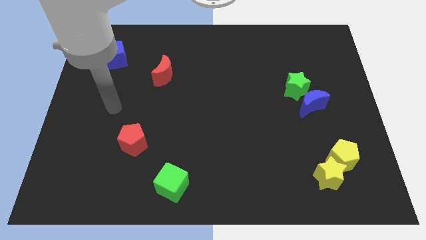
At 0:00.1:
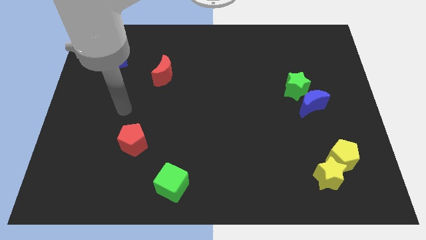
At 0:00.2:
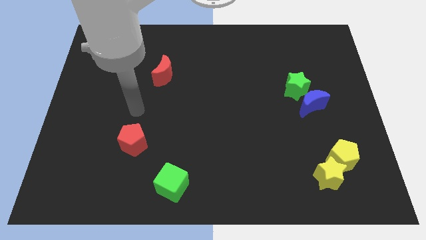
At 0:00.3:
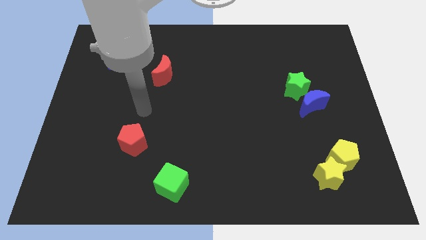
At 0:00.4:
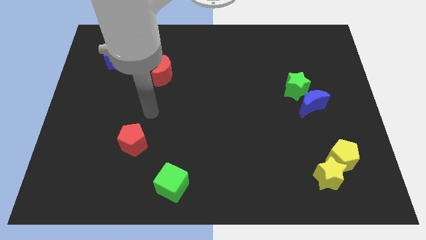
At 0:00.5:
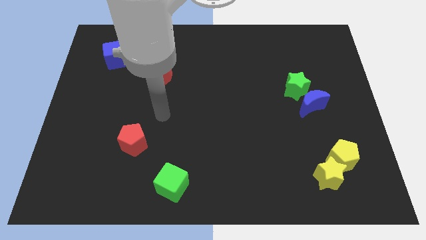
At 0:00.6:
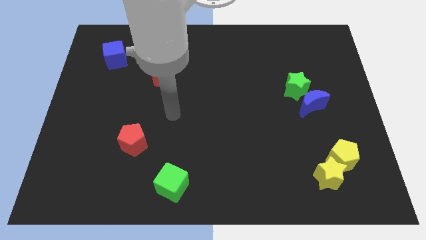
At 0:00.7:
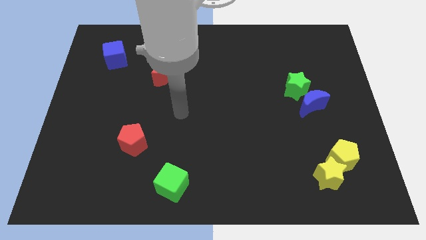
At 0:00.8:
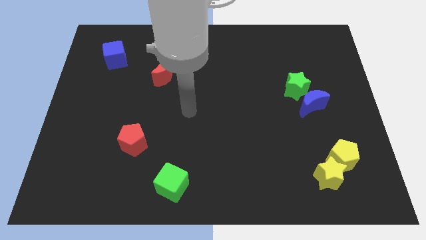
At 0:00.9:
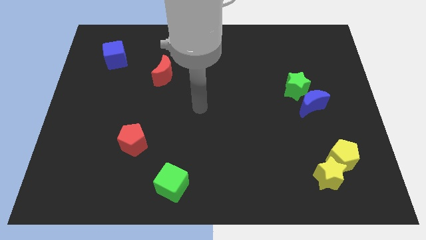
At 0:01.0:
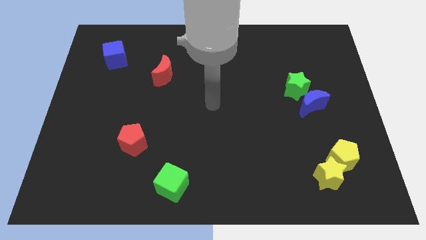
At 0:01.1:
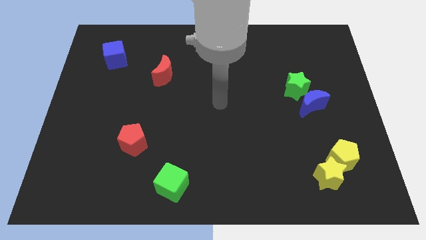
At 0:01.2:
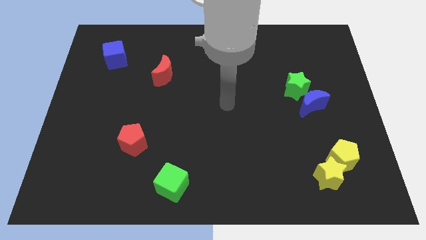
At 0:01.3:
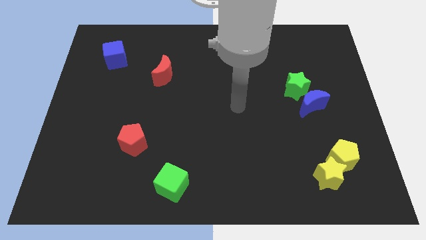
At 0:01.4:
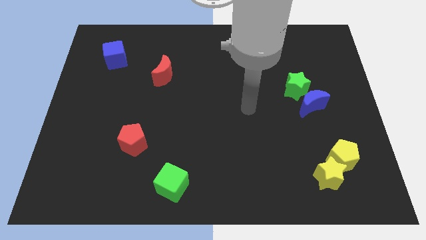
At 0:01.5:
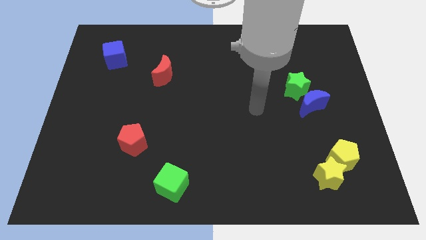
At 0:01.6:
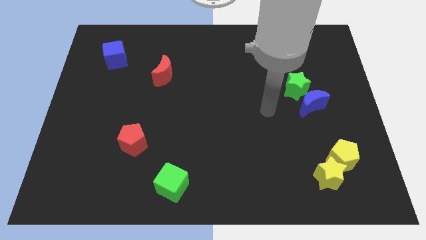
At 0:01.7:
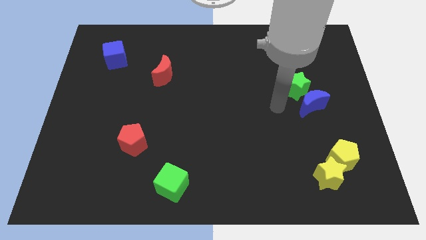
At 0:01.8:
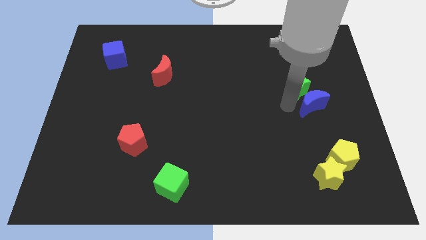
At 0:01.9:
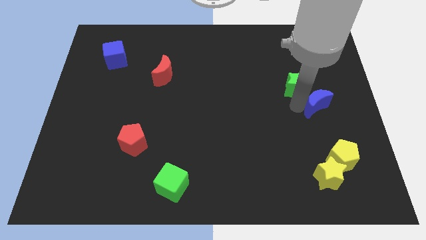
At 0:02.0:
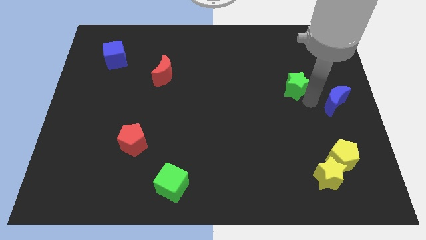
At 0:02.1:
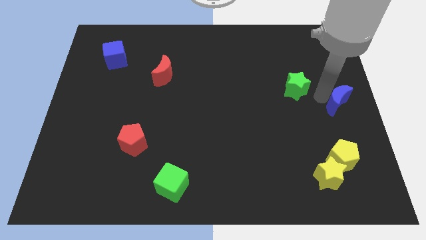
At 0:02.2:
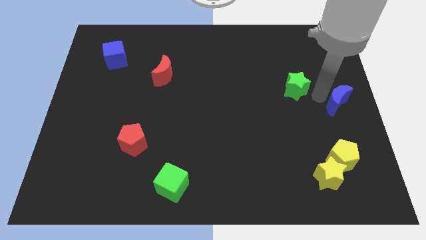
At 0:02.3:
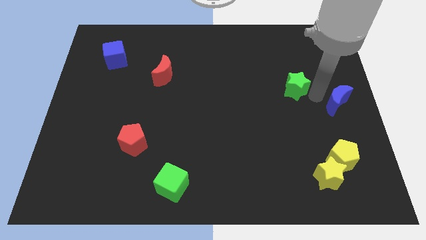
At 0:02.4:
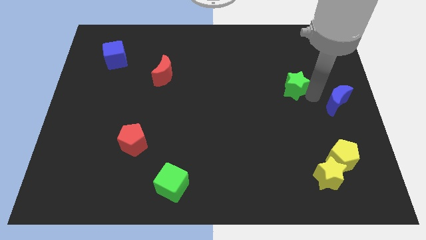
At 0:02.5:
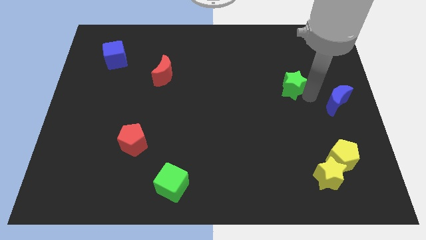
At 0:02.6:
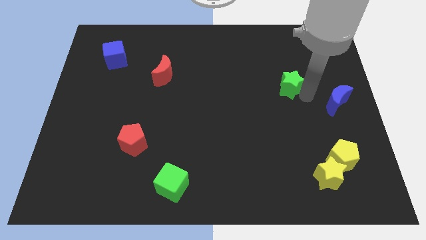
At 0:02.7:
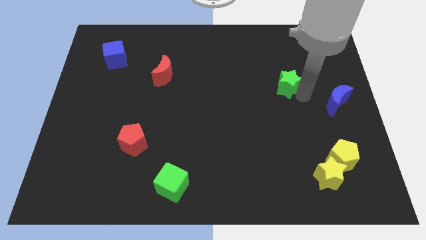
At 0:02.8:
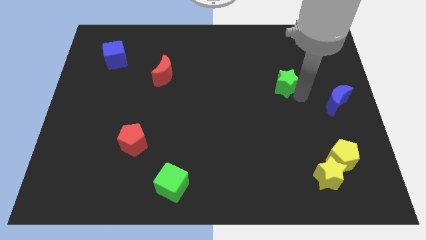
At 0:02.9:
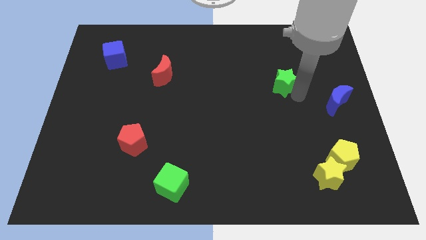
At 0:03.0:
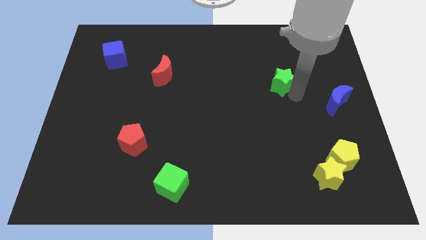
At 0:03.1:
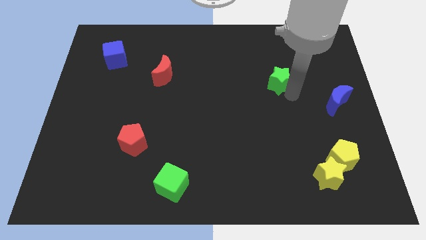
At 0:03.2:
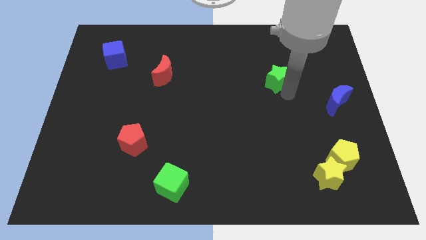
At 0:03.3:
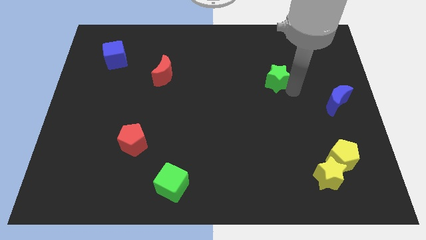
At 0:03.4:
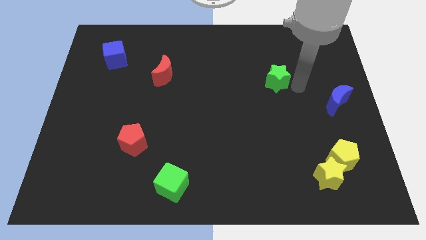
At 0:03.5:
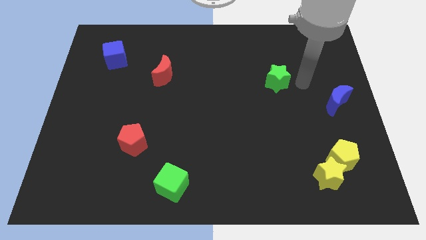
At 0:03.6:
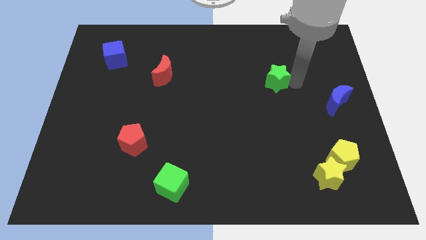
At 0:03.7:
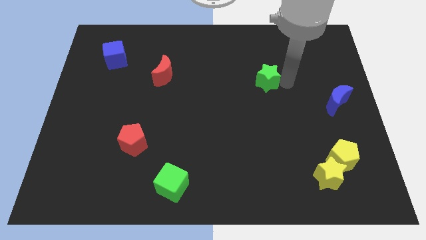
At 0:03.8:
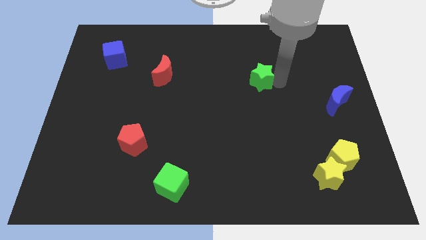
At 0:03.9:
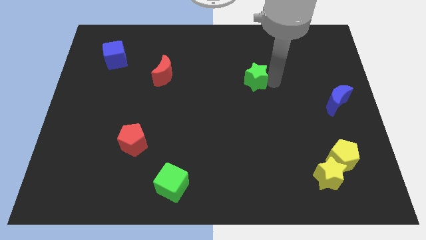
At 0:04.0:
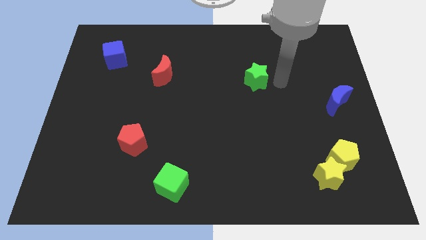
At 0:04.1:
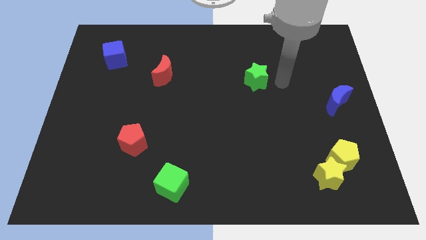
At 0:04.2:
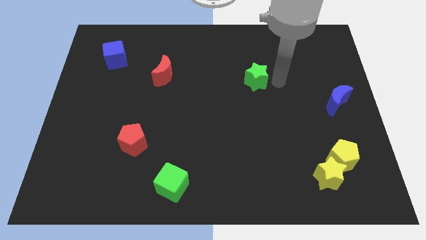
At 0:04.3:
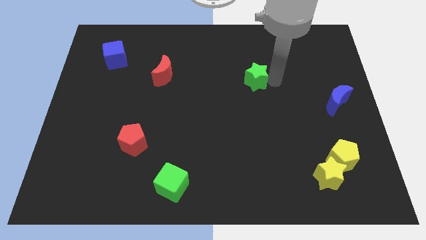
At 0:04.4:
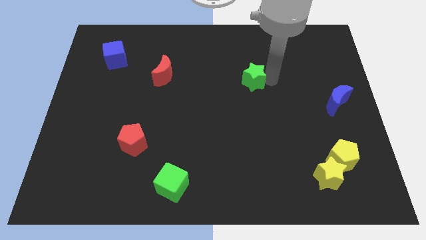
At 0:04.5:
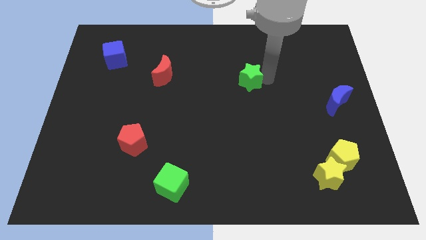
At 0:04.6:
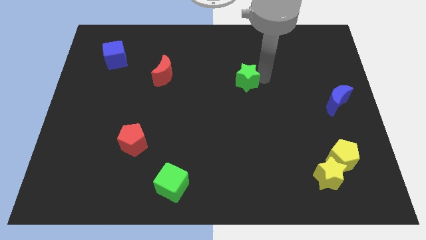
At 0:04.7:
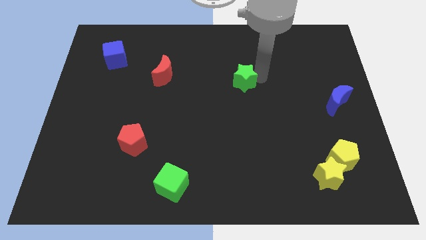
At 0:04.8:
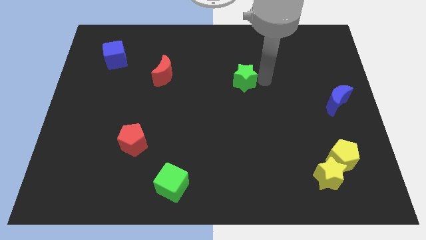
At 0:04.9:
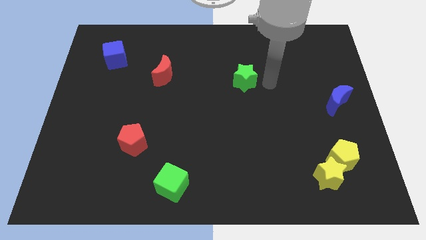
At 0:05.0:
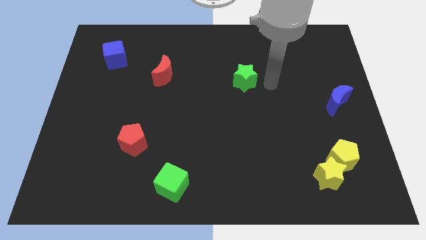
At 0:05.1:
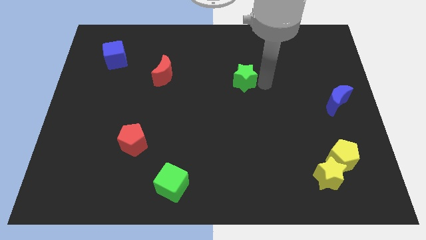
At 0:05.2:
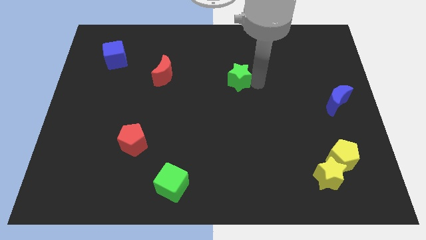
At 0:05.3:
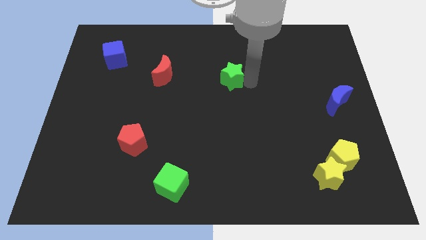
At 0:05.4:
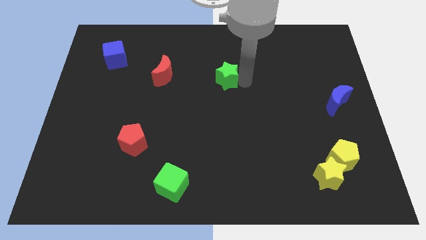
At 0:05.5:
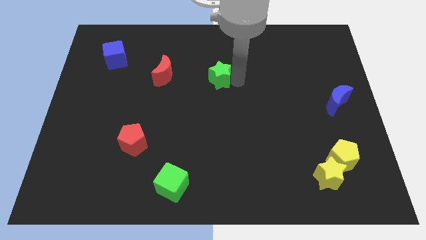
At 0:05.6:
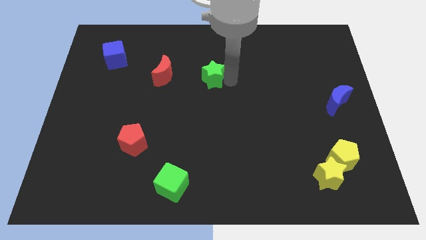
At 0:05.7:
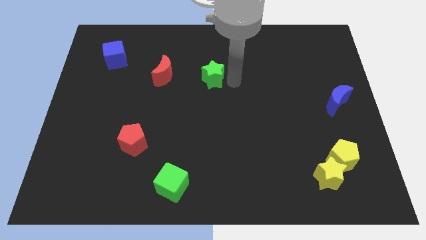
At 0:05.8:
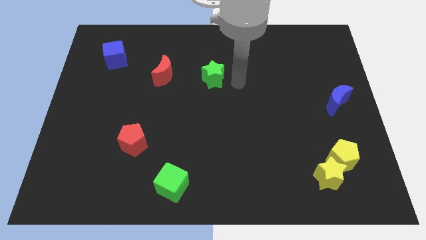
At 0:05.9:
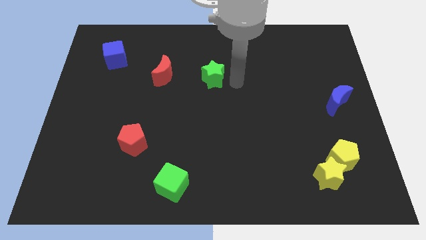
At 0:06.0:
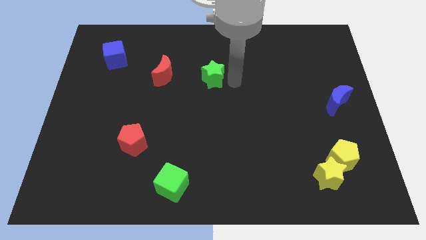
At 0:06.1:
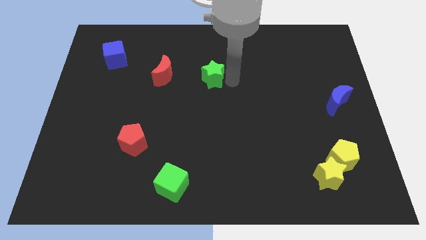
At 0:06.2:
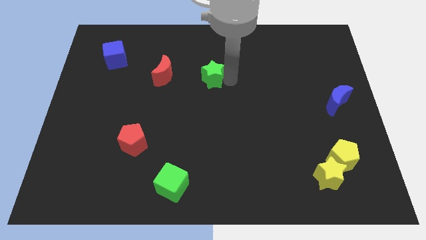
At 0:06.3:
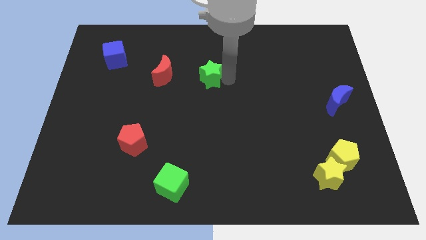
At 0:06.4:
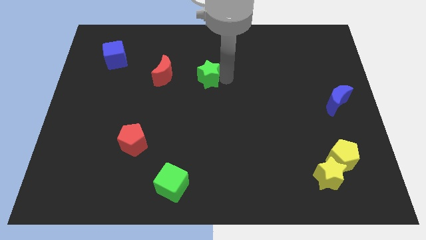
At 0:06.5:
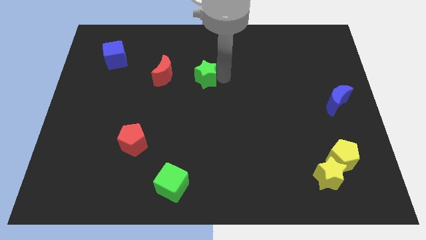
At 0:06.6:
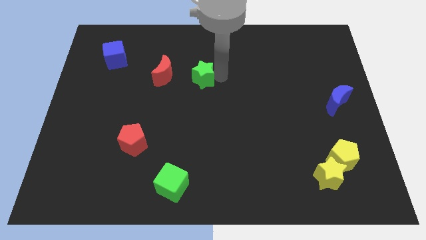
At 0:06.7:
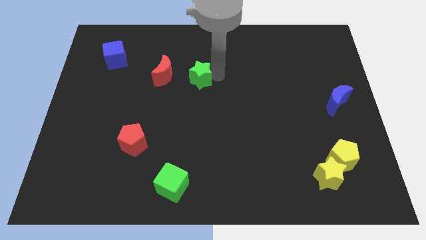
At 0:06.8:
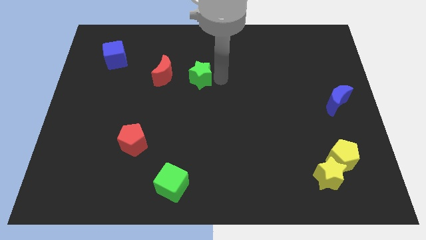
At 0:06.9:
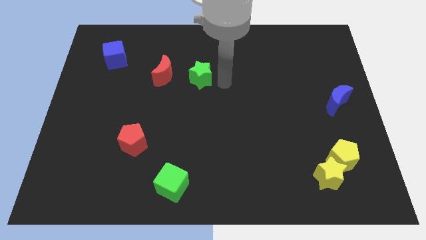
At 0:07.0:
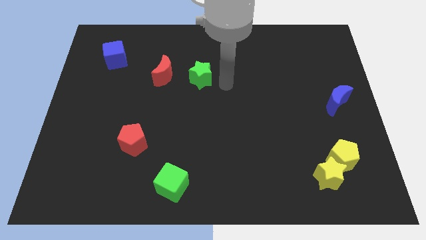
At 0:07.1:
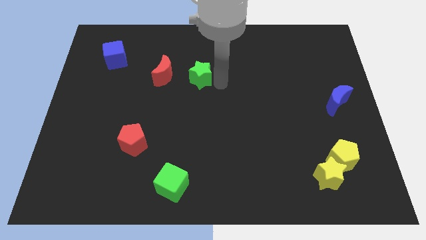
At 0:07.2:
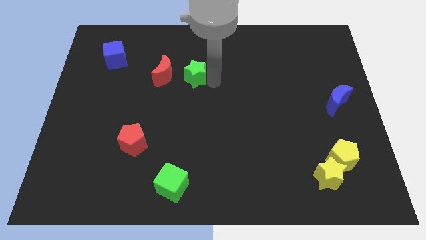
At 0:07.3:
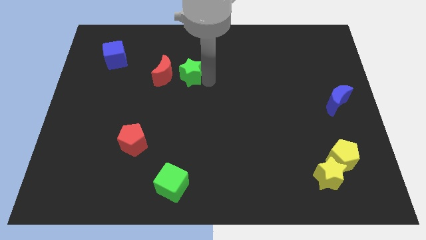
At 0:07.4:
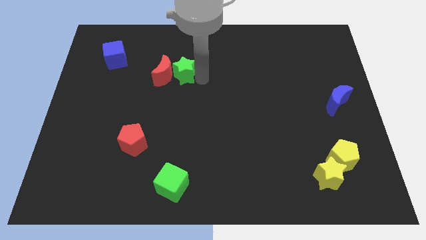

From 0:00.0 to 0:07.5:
move the green star towards the red moon
